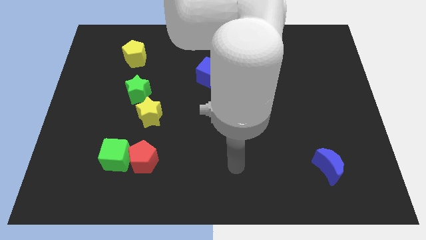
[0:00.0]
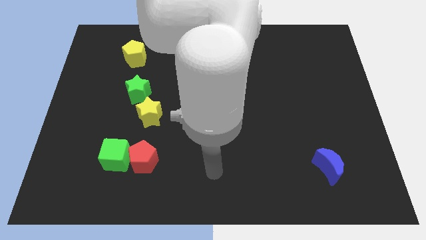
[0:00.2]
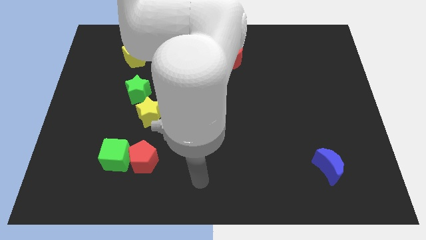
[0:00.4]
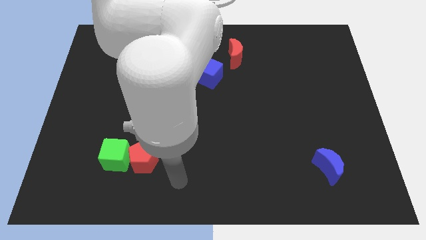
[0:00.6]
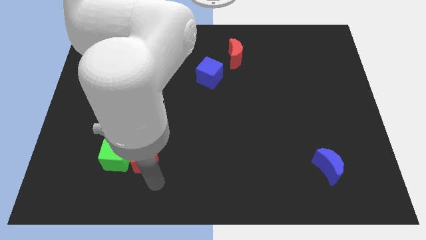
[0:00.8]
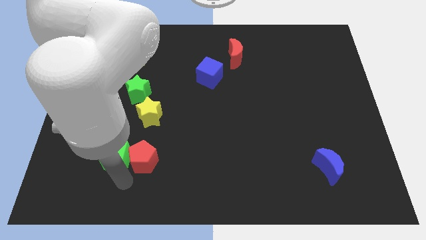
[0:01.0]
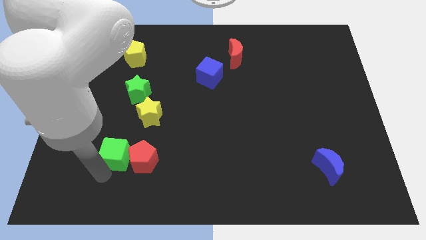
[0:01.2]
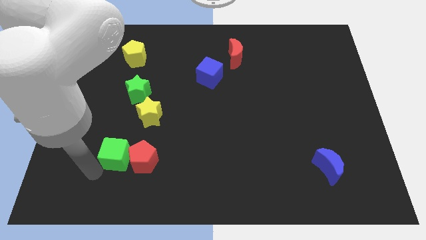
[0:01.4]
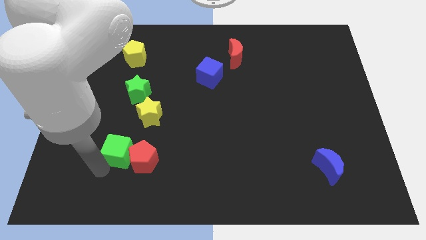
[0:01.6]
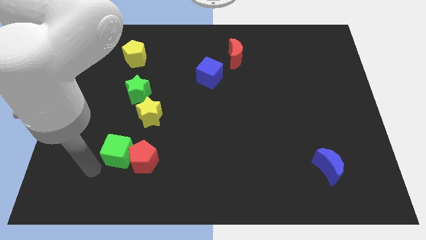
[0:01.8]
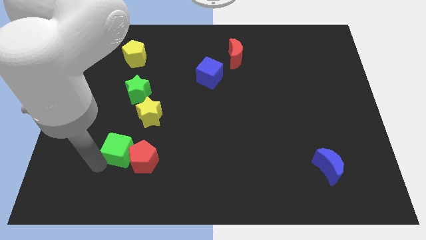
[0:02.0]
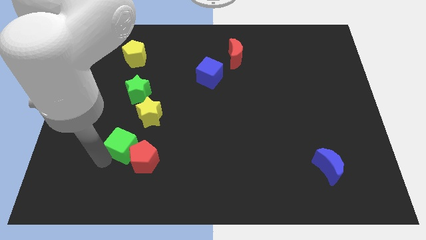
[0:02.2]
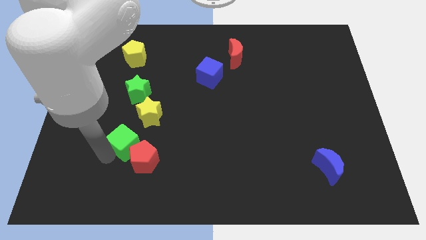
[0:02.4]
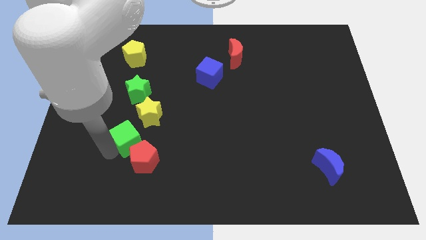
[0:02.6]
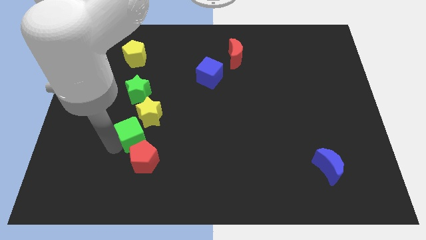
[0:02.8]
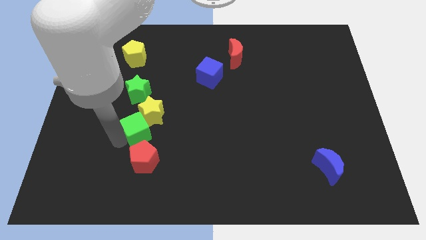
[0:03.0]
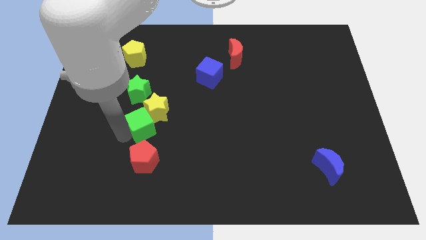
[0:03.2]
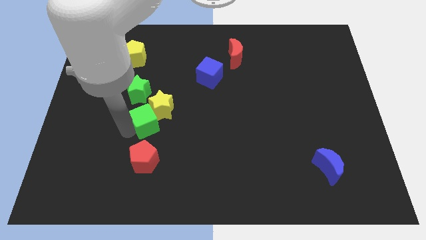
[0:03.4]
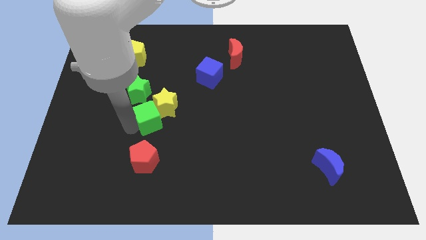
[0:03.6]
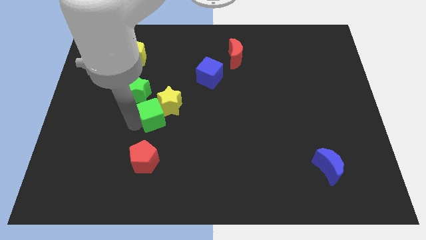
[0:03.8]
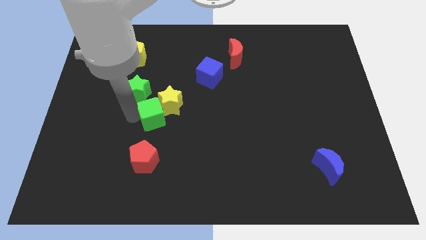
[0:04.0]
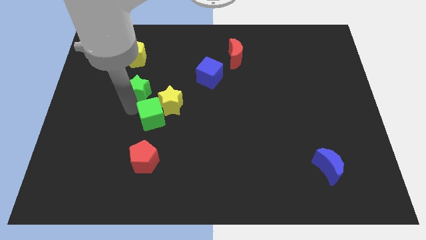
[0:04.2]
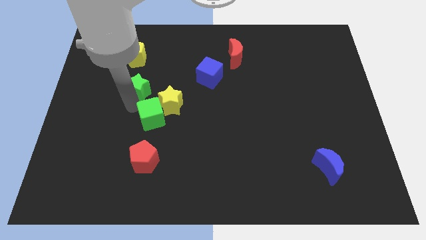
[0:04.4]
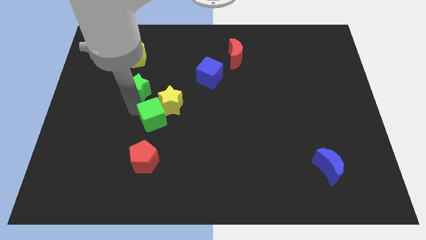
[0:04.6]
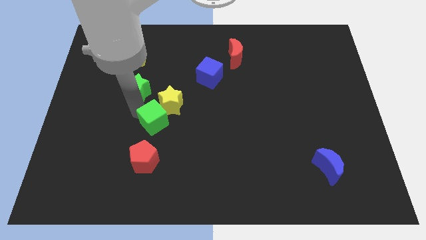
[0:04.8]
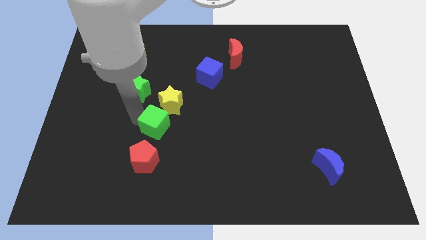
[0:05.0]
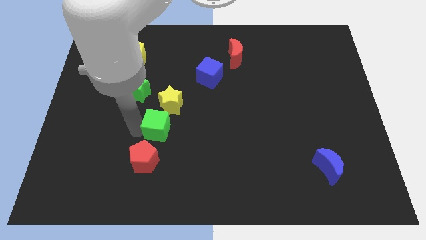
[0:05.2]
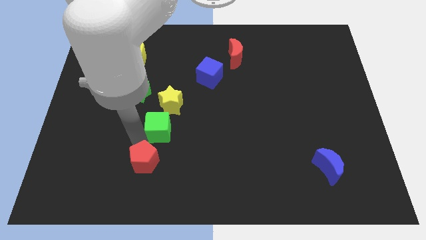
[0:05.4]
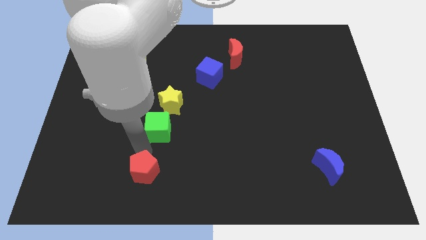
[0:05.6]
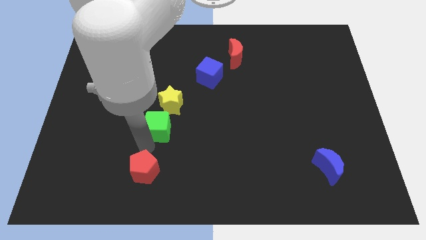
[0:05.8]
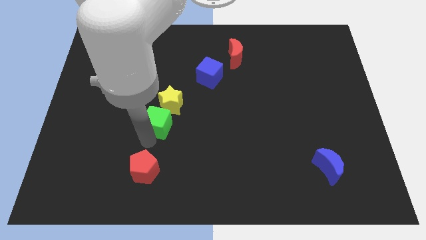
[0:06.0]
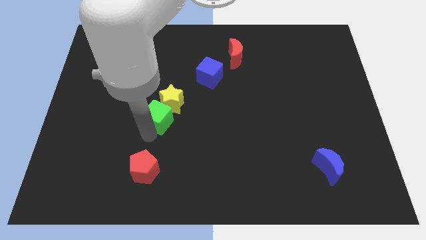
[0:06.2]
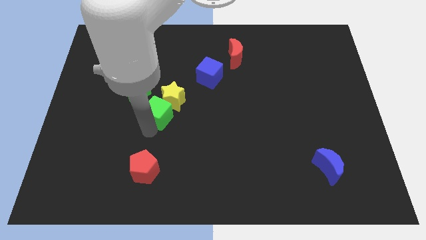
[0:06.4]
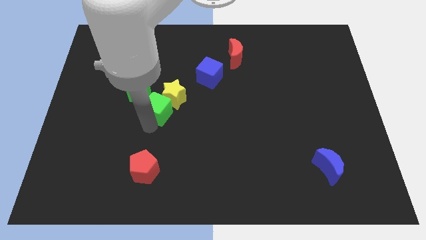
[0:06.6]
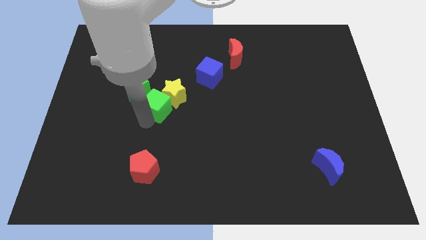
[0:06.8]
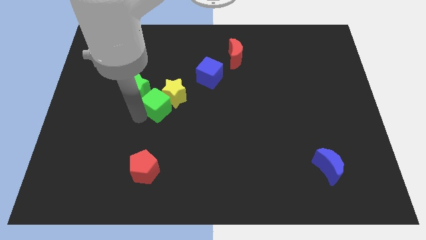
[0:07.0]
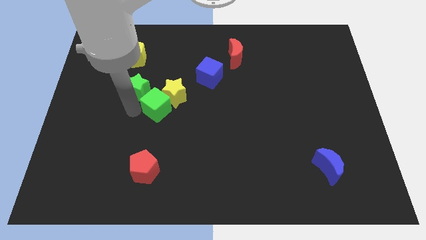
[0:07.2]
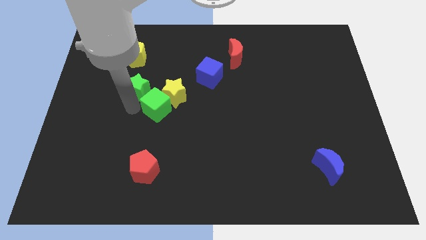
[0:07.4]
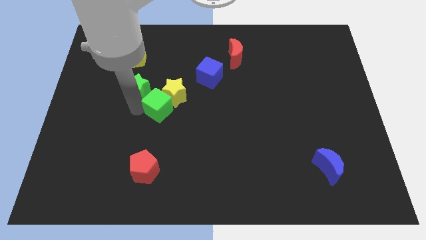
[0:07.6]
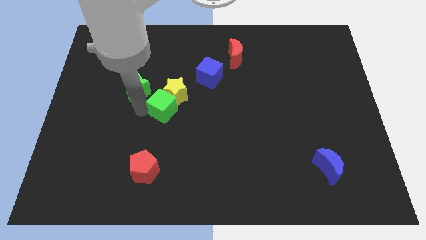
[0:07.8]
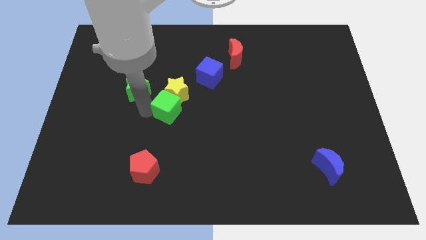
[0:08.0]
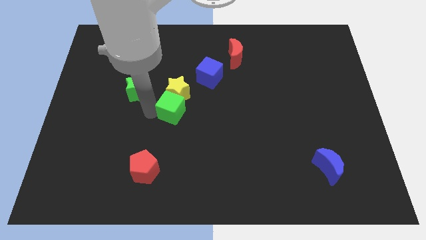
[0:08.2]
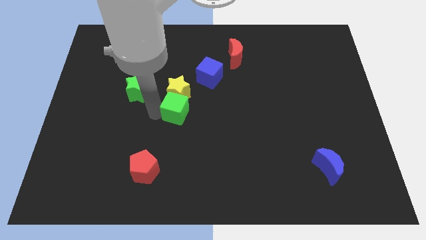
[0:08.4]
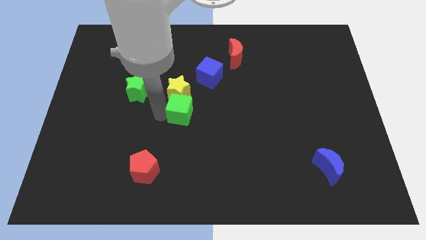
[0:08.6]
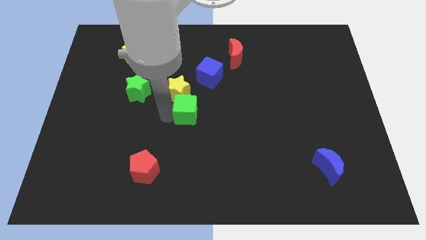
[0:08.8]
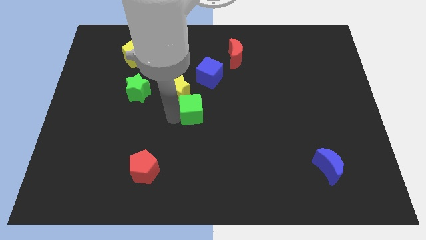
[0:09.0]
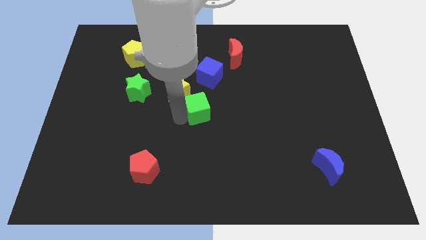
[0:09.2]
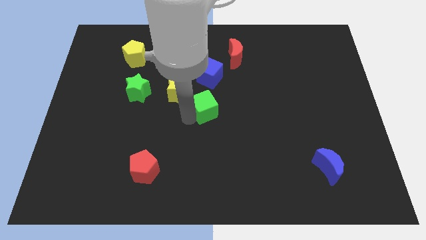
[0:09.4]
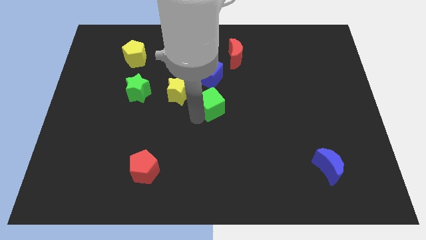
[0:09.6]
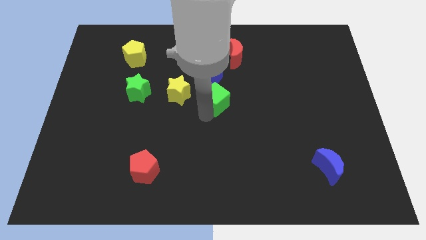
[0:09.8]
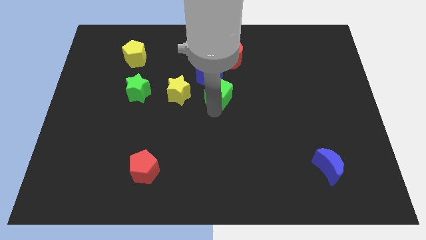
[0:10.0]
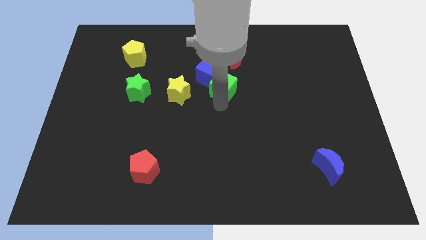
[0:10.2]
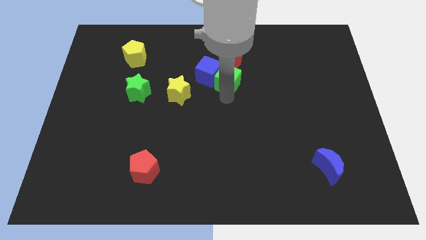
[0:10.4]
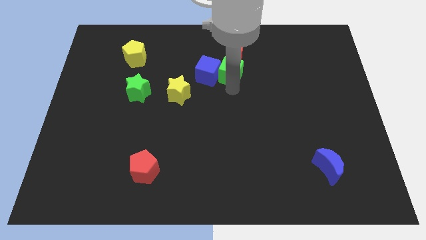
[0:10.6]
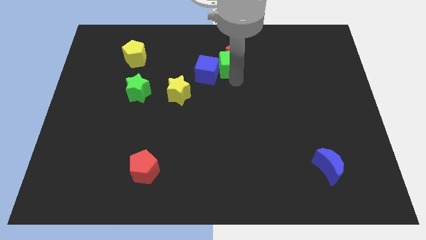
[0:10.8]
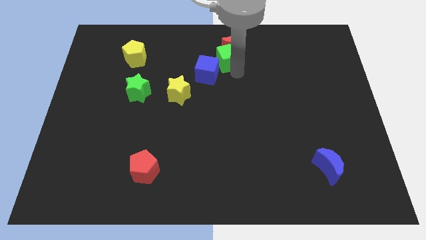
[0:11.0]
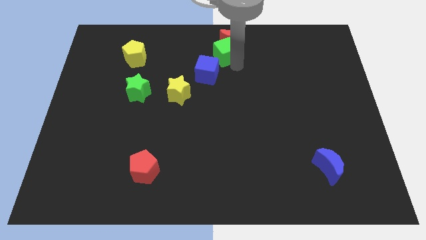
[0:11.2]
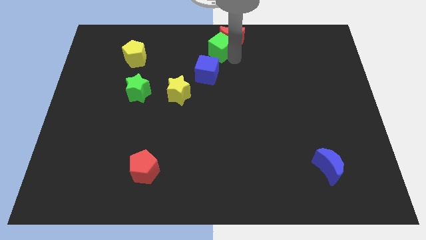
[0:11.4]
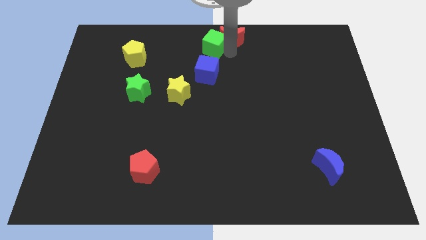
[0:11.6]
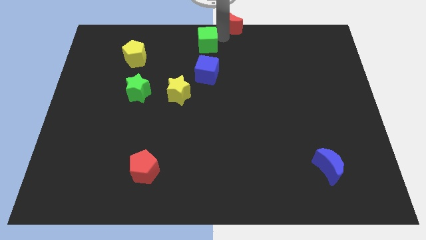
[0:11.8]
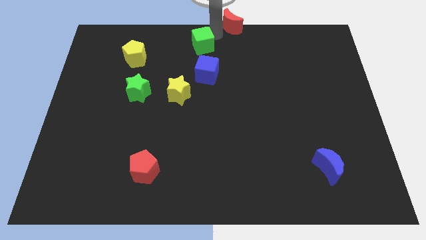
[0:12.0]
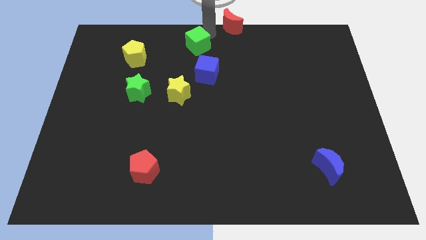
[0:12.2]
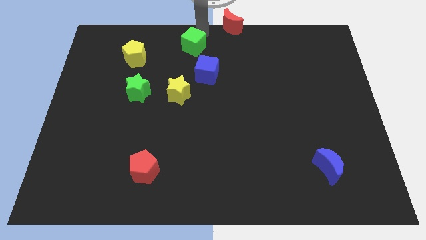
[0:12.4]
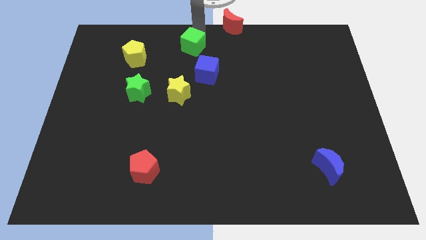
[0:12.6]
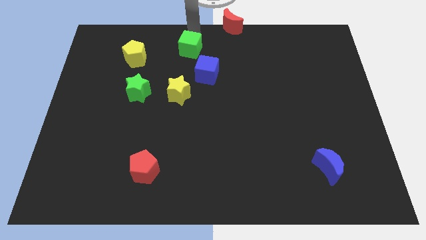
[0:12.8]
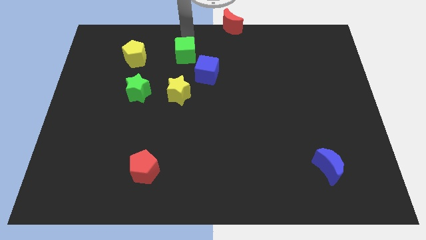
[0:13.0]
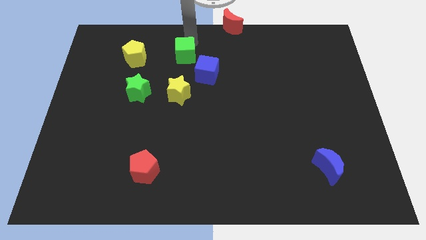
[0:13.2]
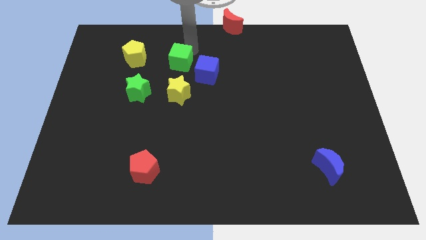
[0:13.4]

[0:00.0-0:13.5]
move the green cube to the left side of the blue cube
